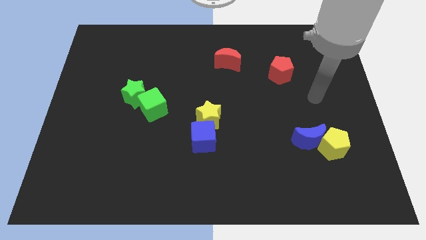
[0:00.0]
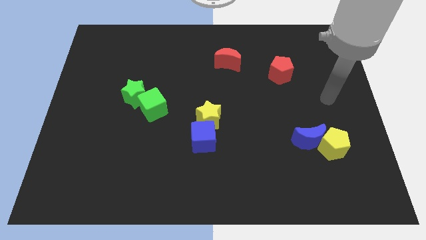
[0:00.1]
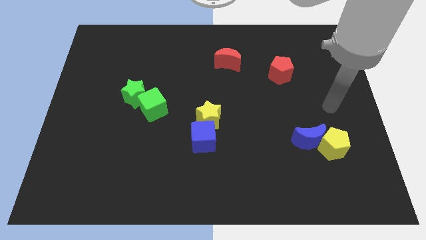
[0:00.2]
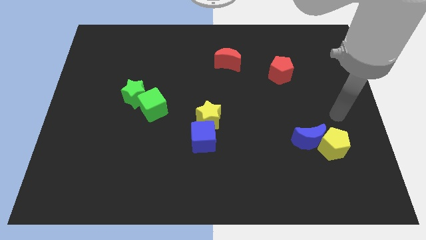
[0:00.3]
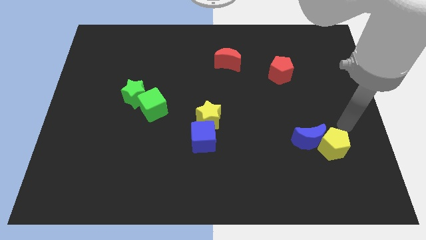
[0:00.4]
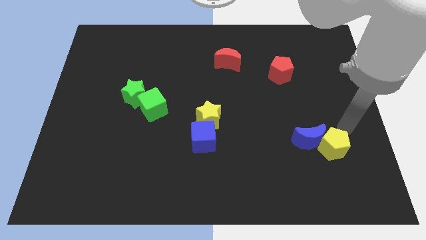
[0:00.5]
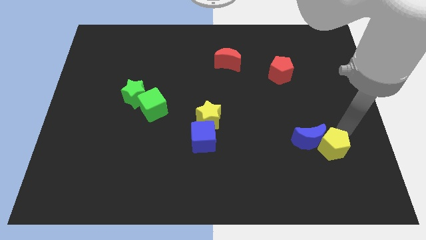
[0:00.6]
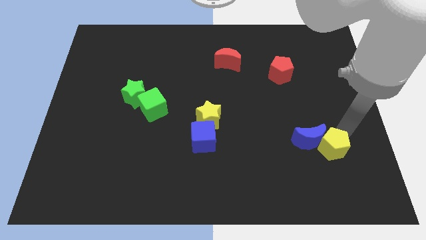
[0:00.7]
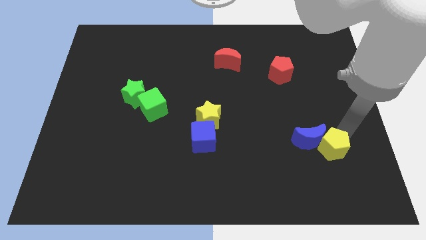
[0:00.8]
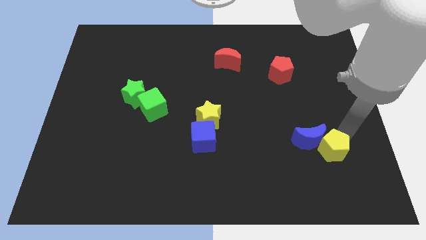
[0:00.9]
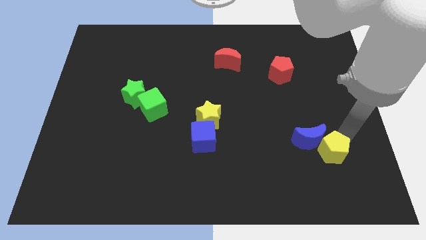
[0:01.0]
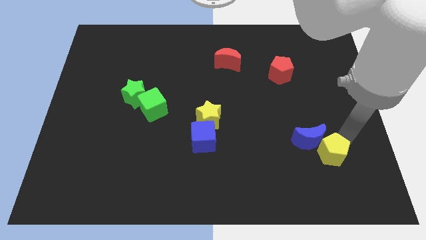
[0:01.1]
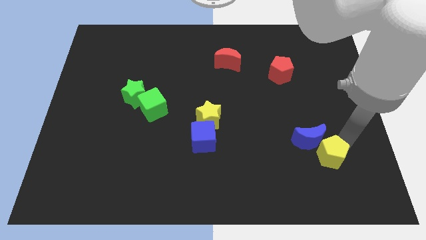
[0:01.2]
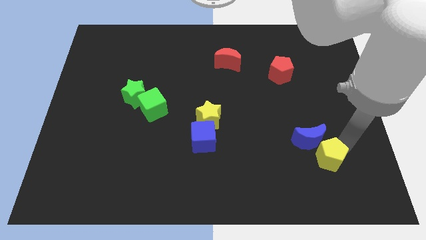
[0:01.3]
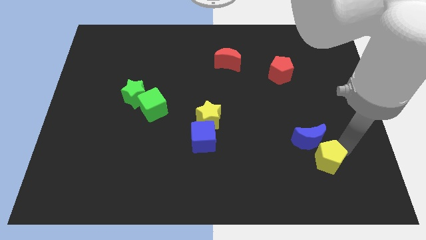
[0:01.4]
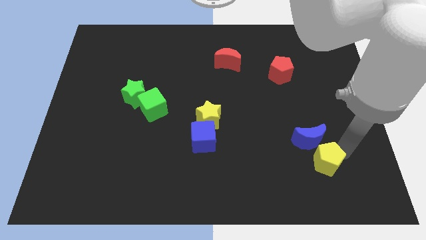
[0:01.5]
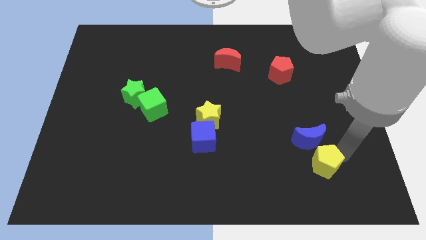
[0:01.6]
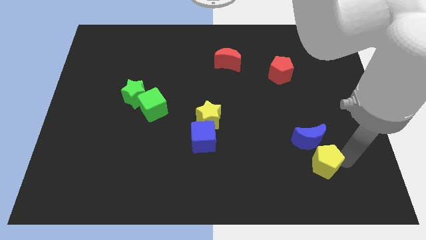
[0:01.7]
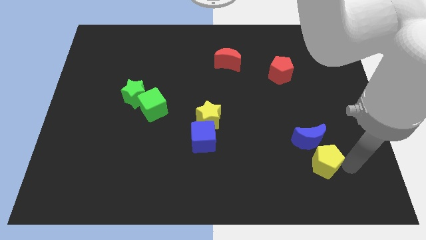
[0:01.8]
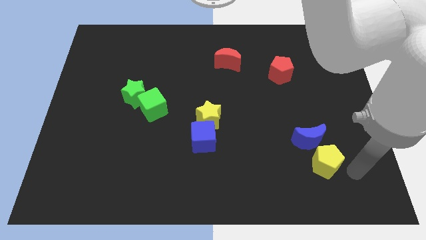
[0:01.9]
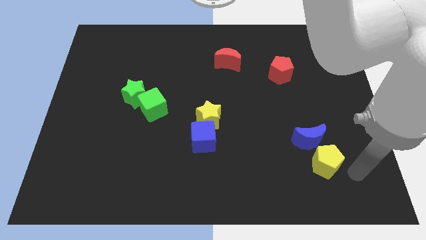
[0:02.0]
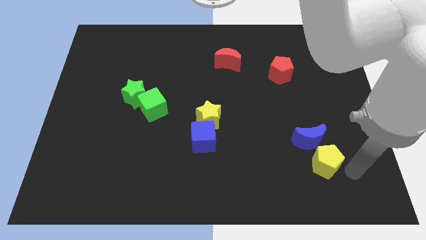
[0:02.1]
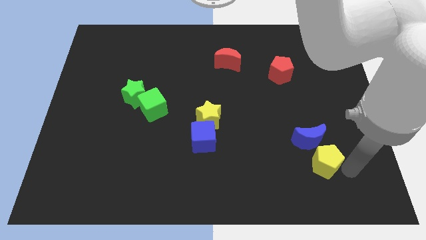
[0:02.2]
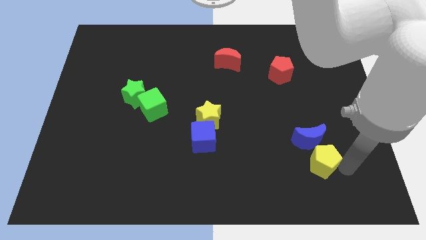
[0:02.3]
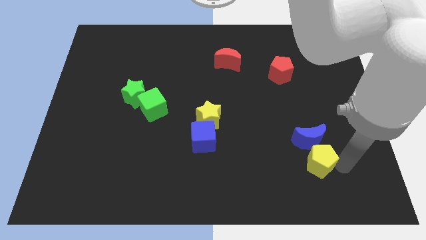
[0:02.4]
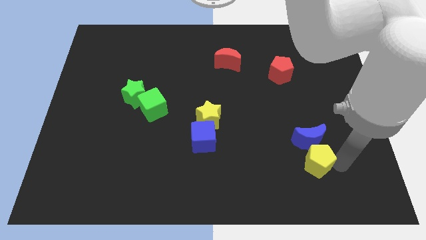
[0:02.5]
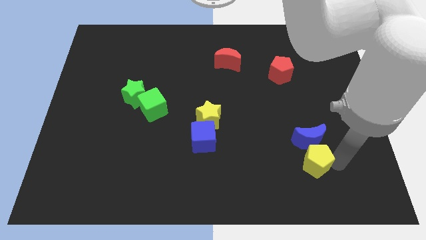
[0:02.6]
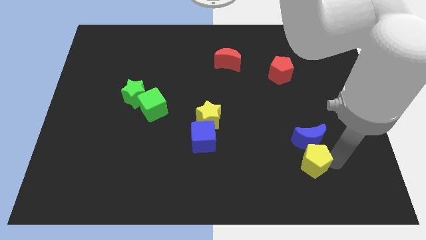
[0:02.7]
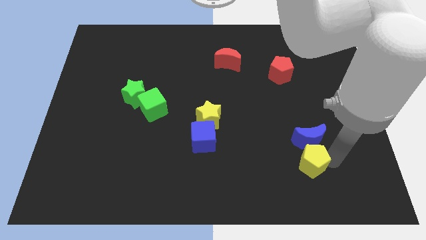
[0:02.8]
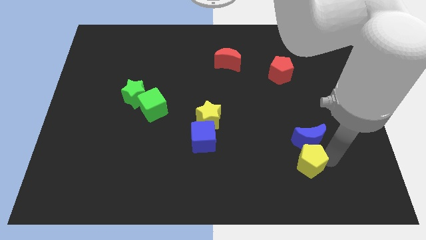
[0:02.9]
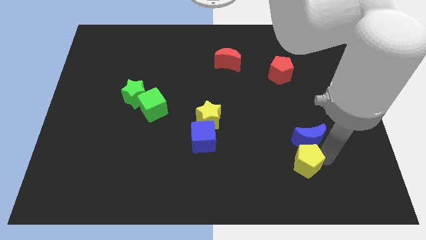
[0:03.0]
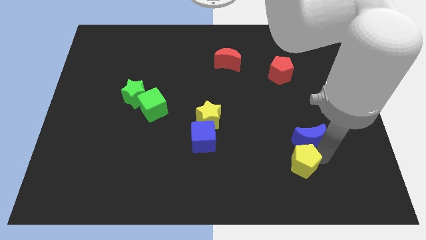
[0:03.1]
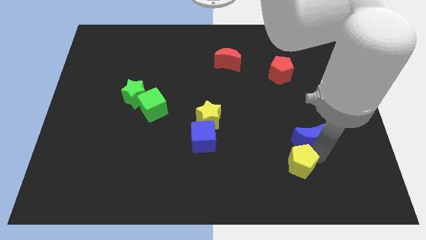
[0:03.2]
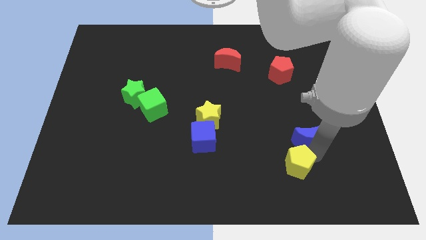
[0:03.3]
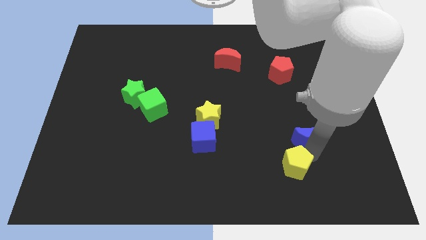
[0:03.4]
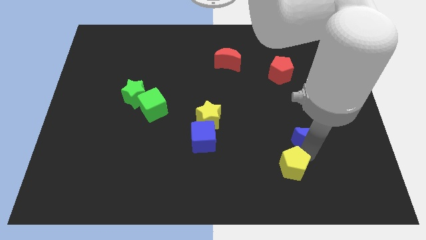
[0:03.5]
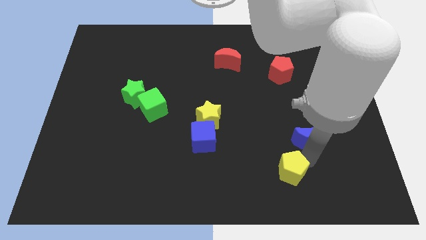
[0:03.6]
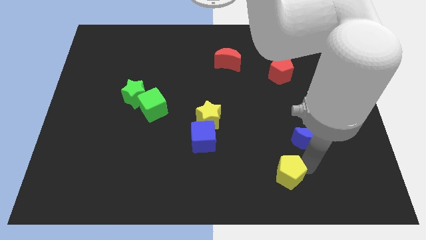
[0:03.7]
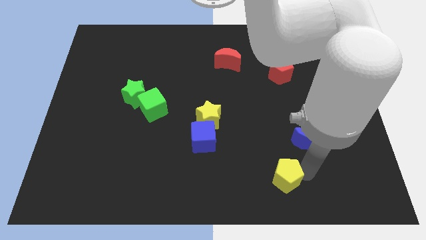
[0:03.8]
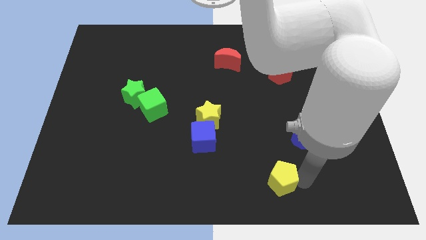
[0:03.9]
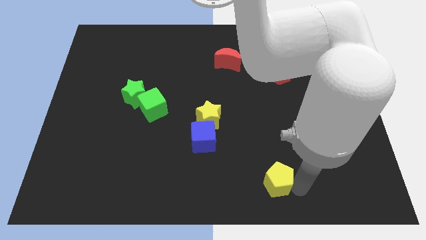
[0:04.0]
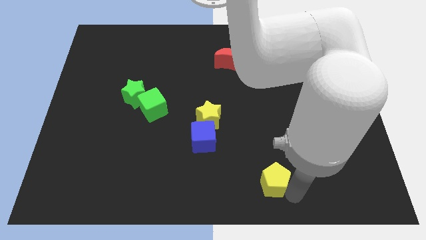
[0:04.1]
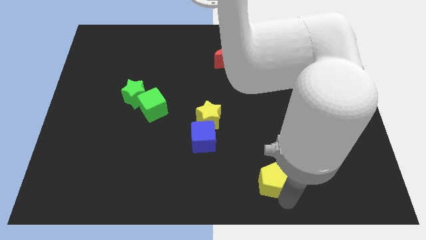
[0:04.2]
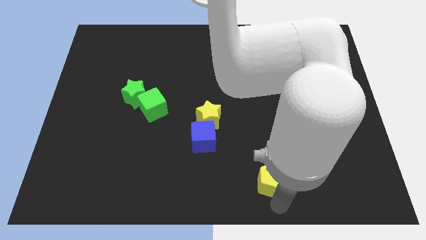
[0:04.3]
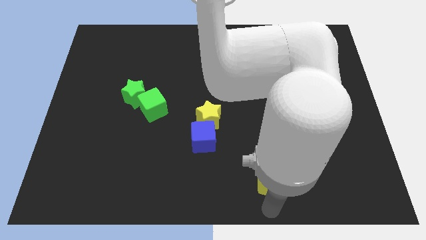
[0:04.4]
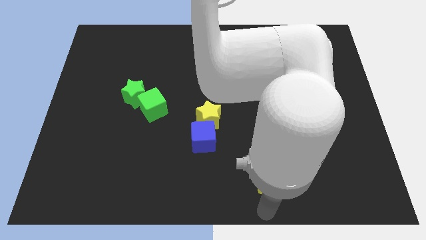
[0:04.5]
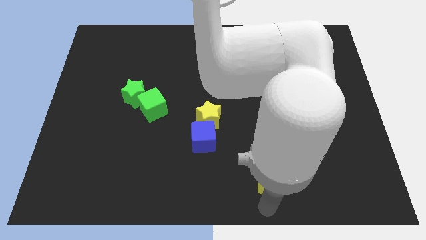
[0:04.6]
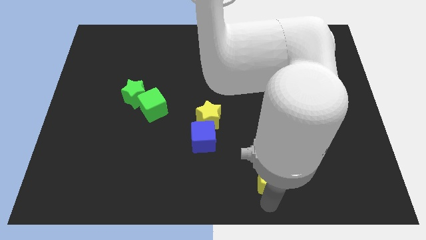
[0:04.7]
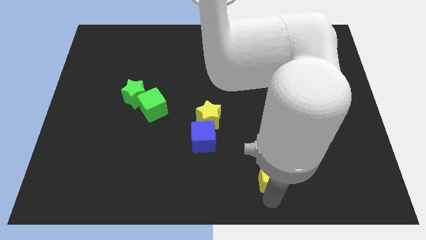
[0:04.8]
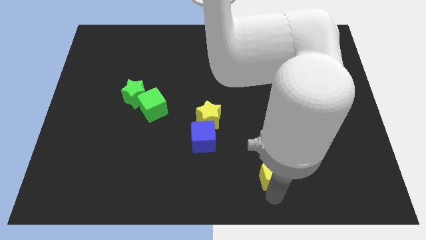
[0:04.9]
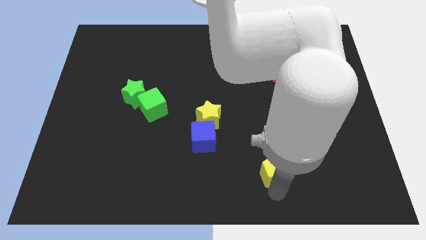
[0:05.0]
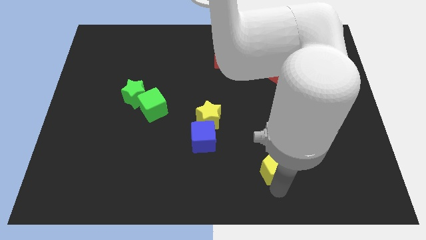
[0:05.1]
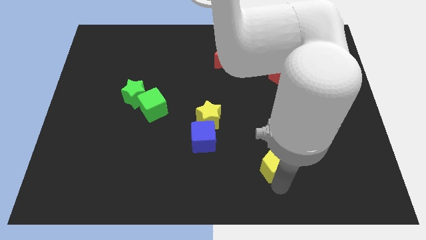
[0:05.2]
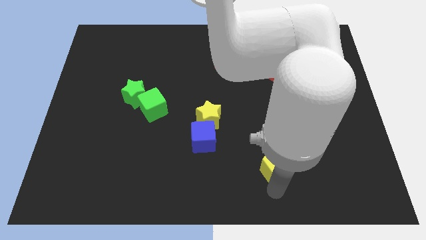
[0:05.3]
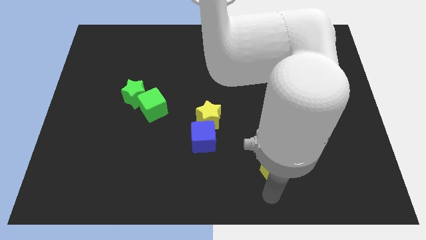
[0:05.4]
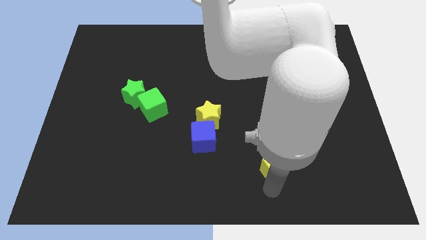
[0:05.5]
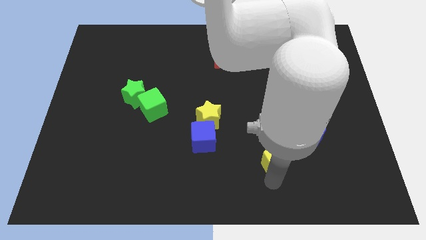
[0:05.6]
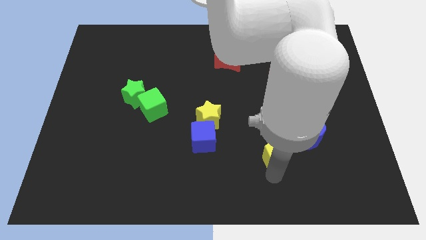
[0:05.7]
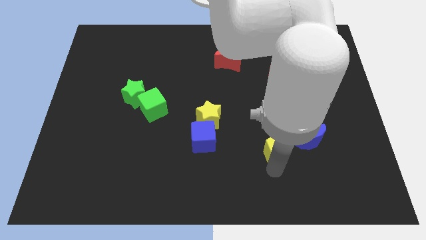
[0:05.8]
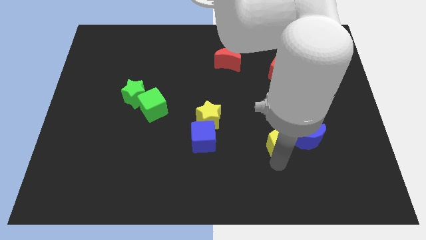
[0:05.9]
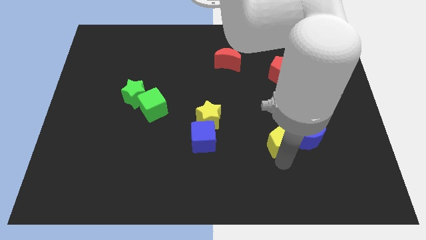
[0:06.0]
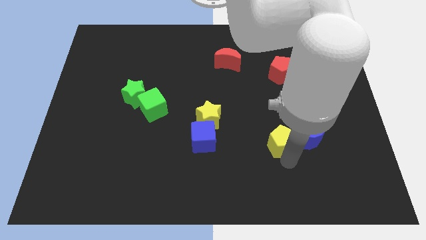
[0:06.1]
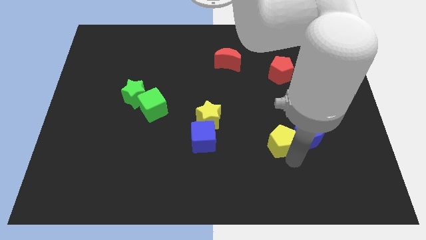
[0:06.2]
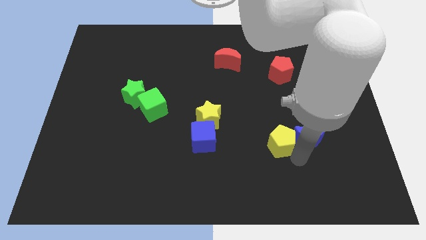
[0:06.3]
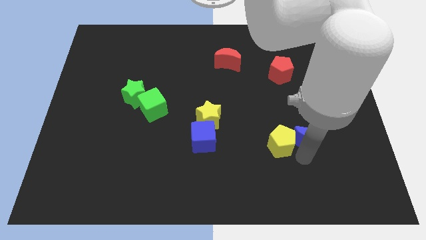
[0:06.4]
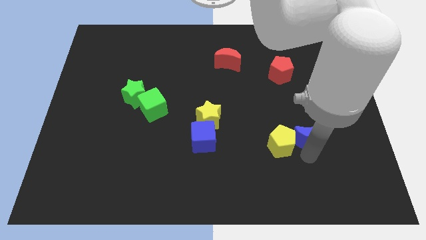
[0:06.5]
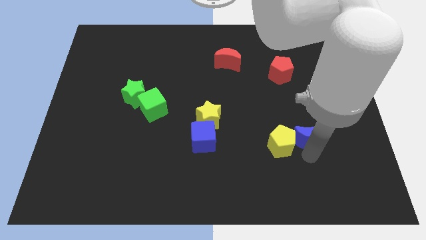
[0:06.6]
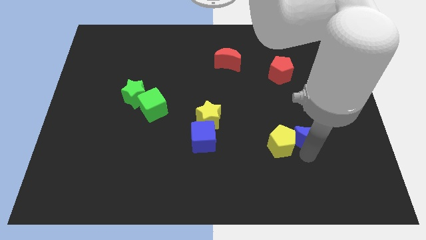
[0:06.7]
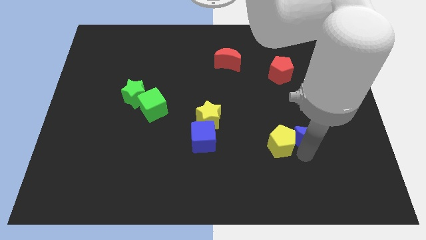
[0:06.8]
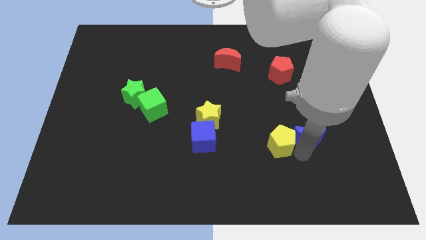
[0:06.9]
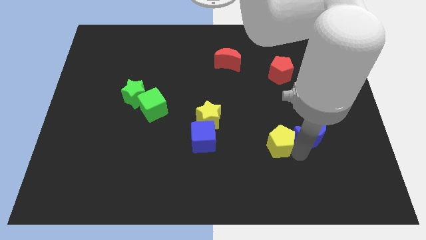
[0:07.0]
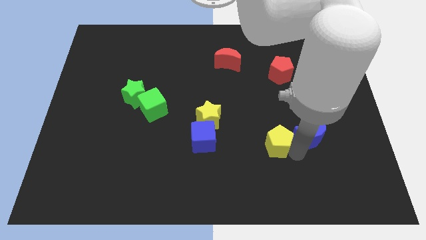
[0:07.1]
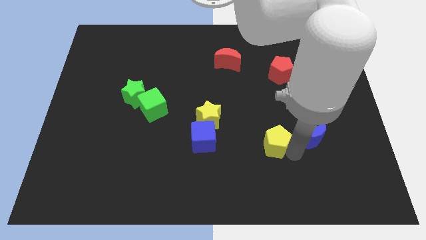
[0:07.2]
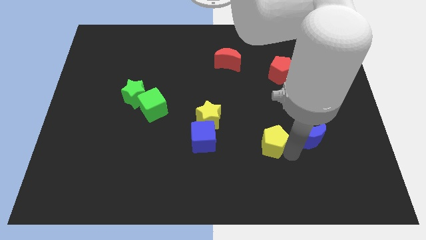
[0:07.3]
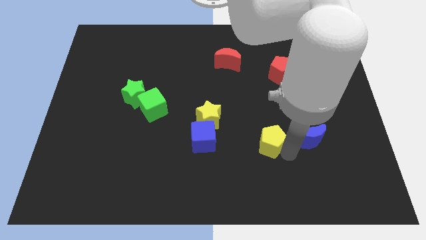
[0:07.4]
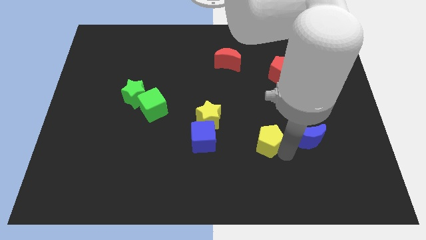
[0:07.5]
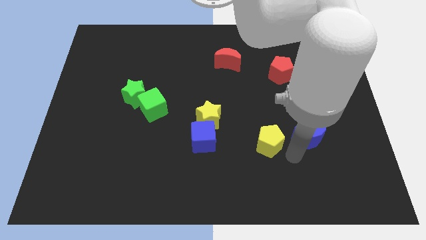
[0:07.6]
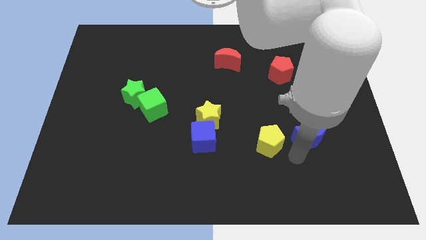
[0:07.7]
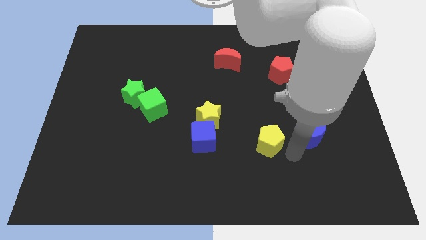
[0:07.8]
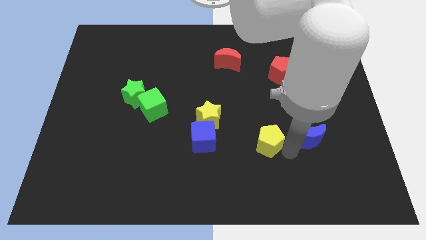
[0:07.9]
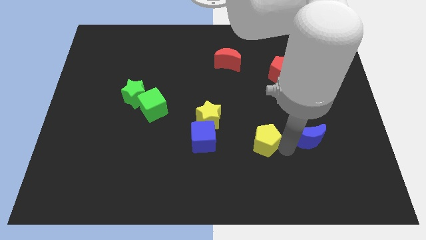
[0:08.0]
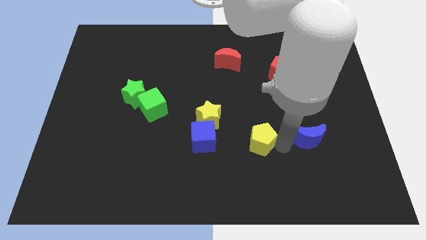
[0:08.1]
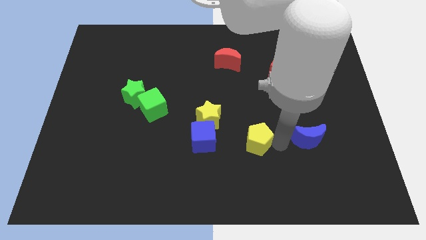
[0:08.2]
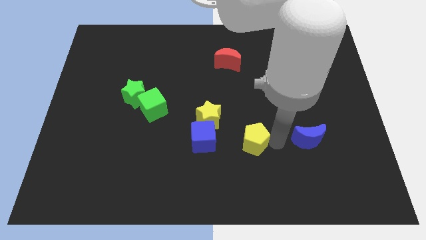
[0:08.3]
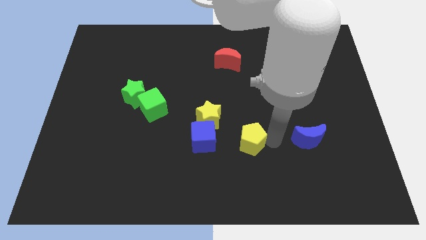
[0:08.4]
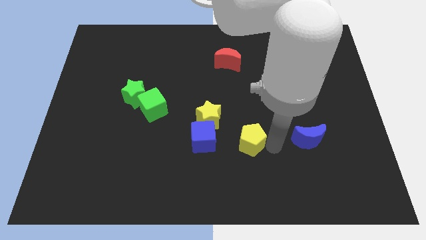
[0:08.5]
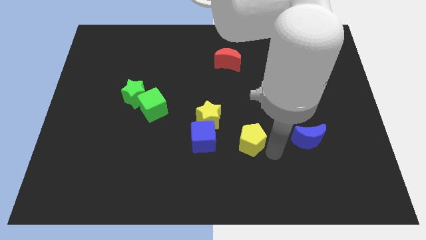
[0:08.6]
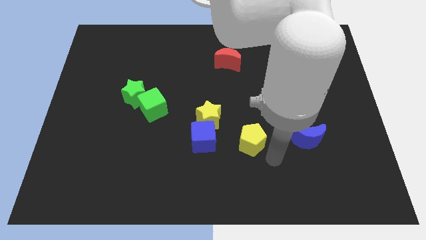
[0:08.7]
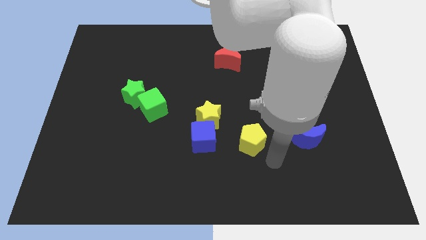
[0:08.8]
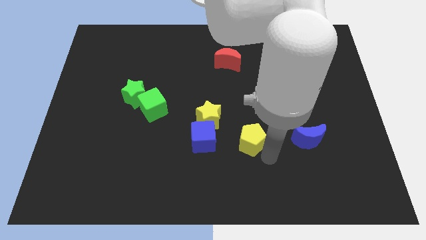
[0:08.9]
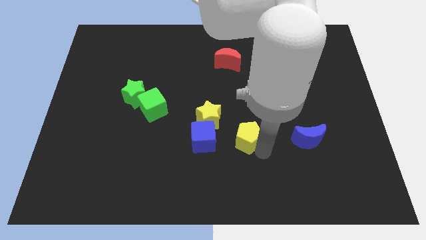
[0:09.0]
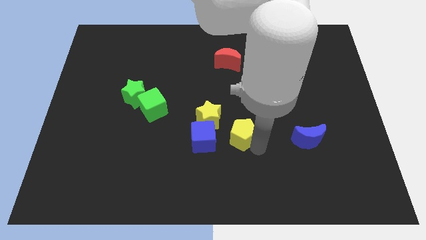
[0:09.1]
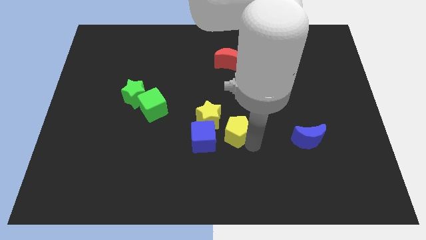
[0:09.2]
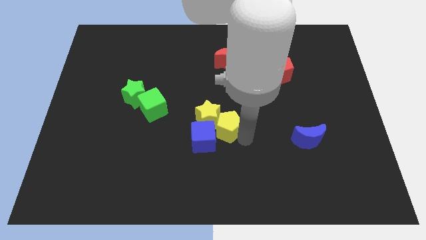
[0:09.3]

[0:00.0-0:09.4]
push the yellow pentagon towards the yellow star
